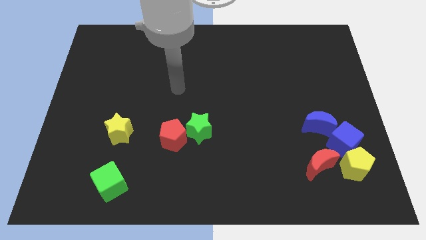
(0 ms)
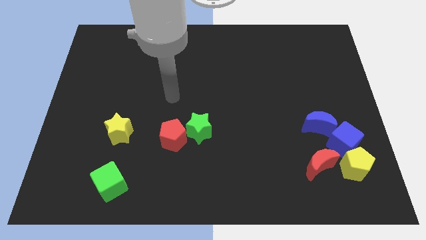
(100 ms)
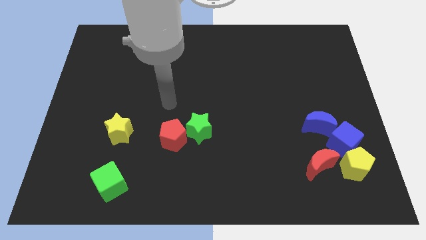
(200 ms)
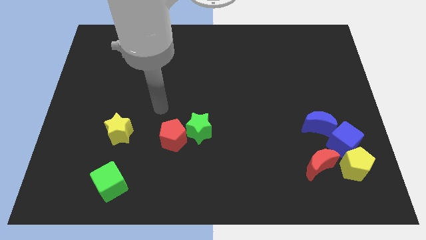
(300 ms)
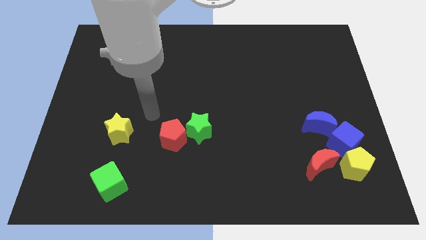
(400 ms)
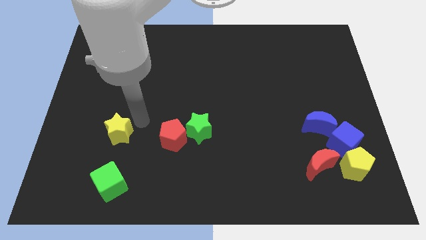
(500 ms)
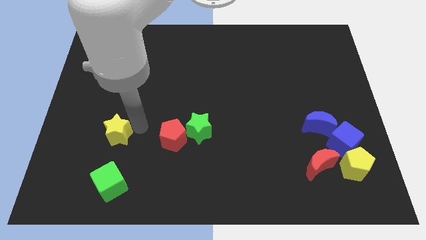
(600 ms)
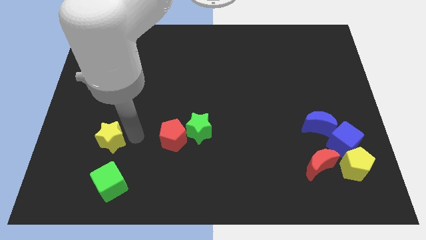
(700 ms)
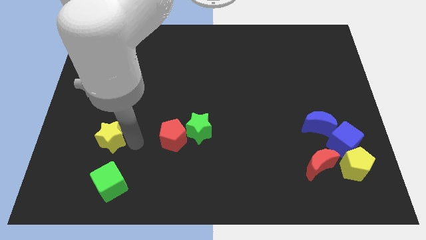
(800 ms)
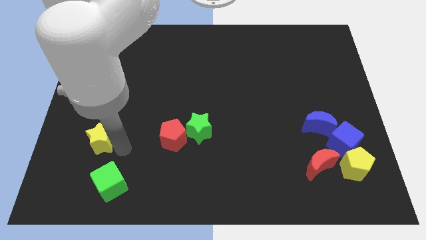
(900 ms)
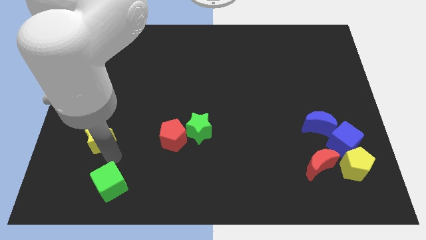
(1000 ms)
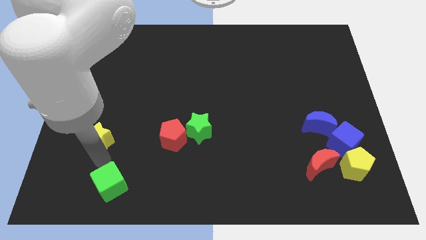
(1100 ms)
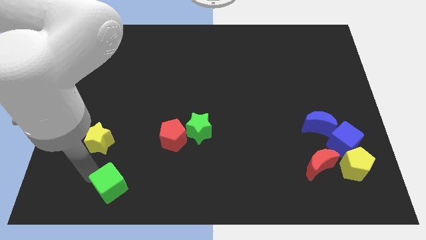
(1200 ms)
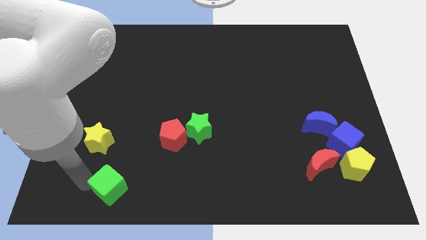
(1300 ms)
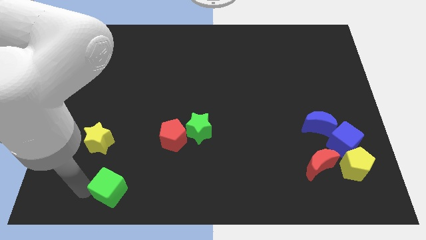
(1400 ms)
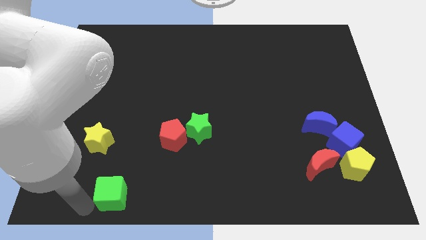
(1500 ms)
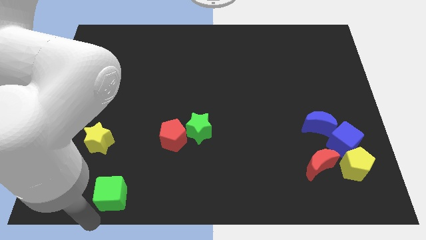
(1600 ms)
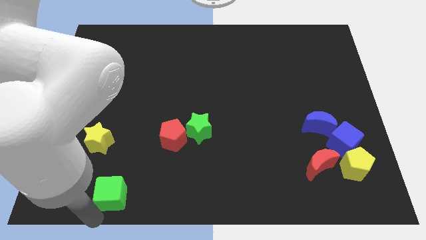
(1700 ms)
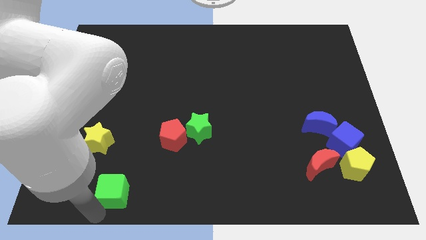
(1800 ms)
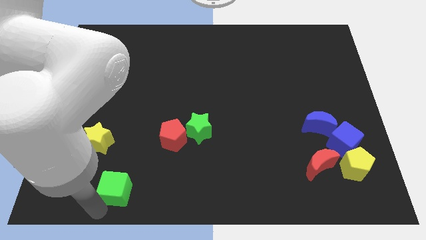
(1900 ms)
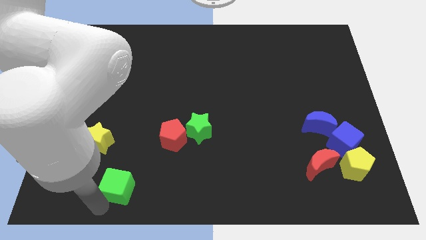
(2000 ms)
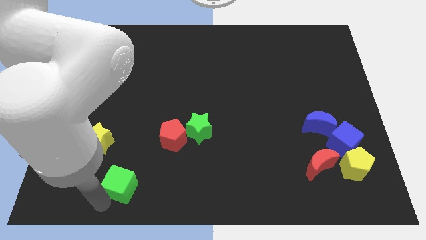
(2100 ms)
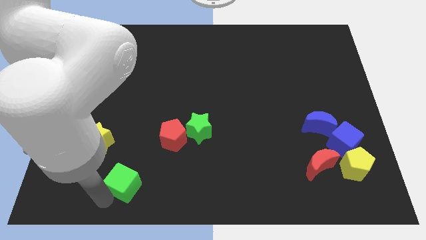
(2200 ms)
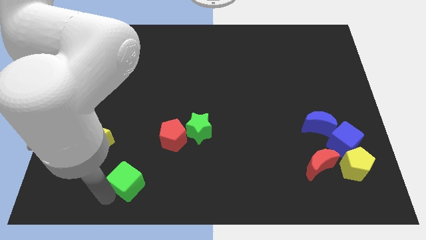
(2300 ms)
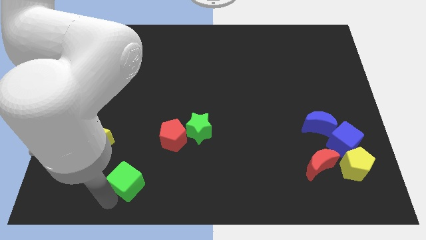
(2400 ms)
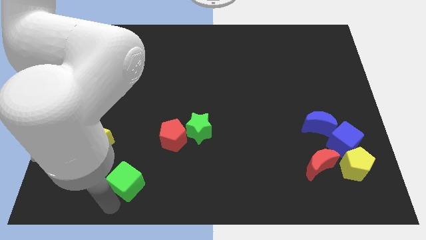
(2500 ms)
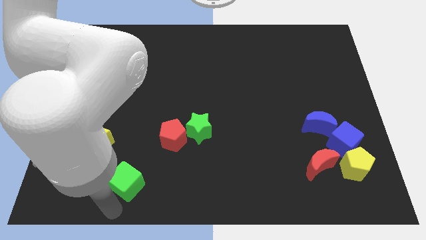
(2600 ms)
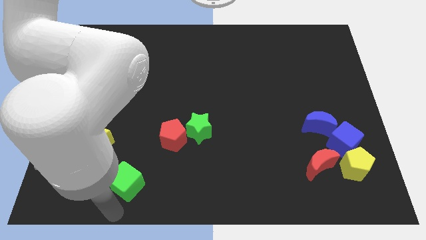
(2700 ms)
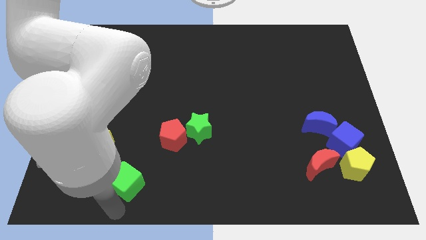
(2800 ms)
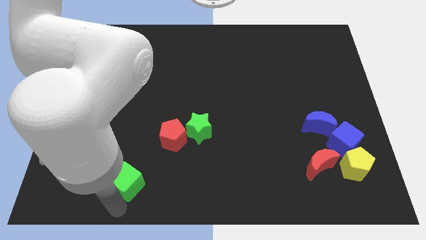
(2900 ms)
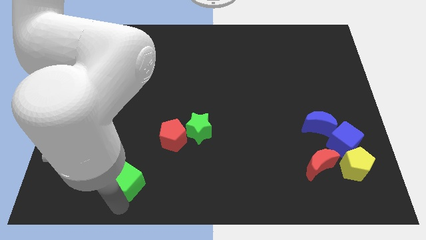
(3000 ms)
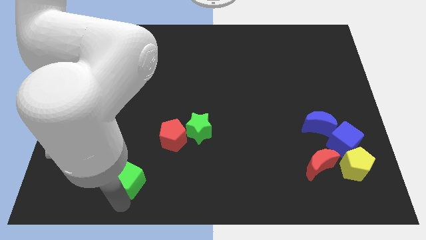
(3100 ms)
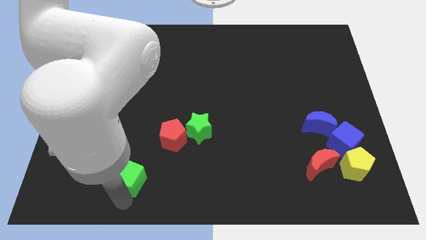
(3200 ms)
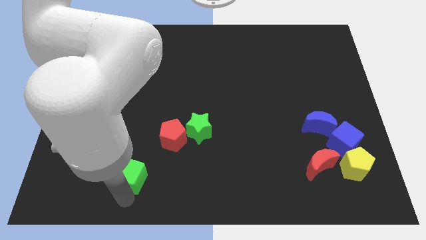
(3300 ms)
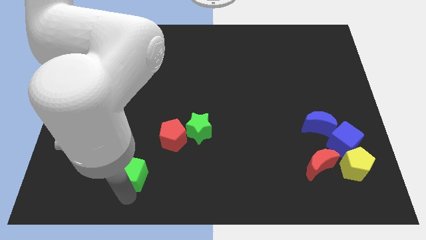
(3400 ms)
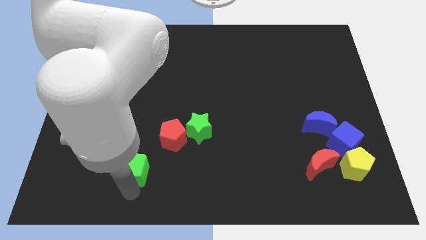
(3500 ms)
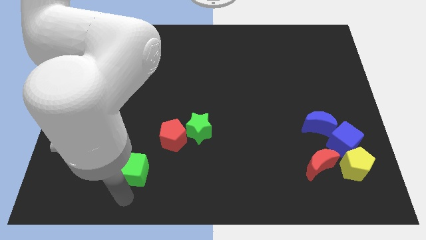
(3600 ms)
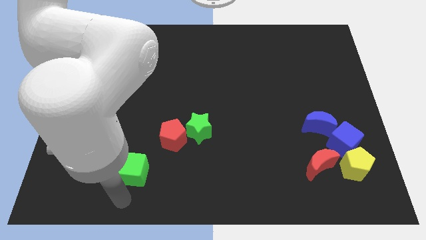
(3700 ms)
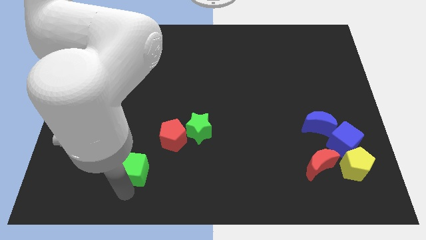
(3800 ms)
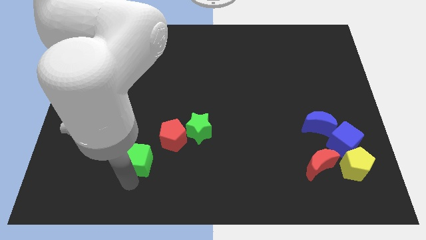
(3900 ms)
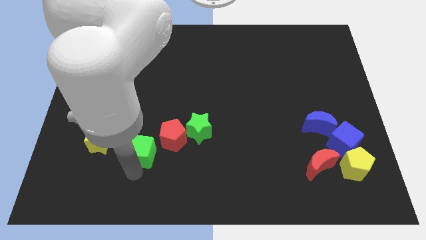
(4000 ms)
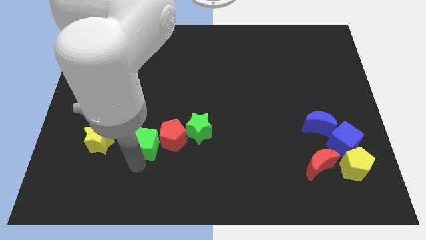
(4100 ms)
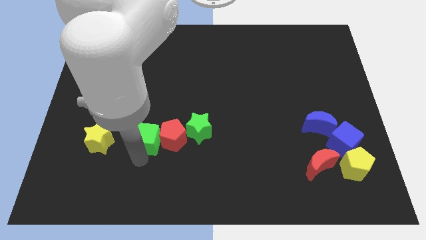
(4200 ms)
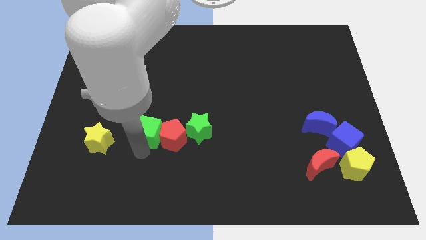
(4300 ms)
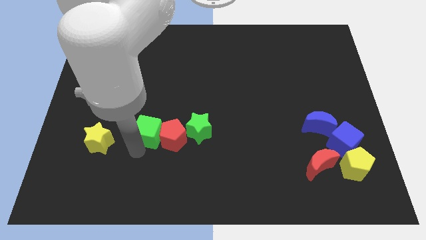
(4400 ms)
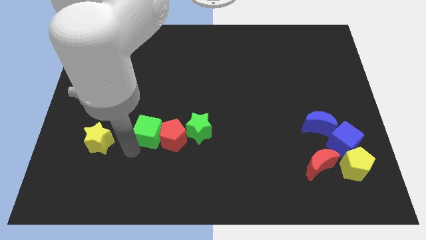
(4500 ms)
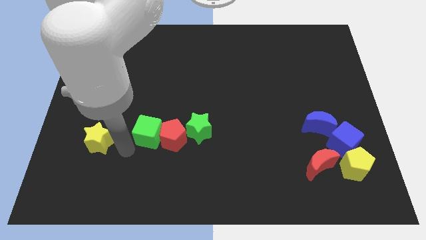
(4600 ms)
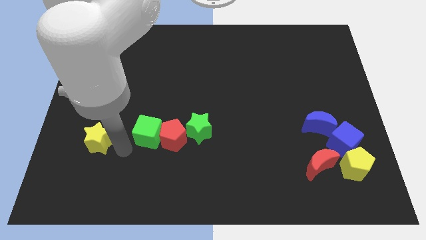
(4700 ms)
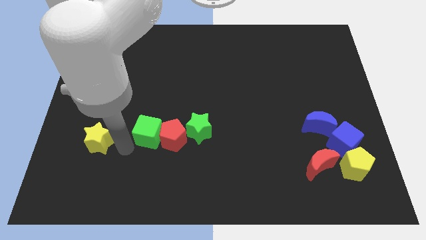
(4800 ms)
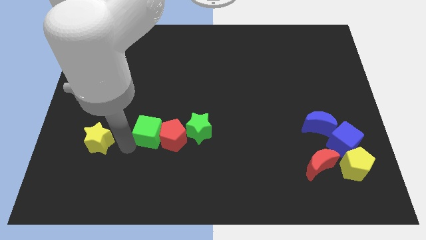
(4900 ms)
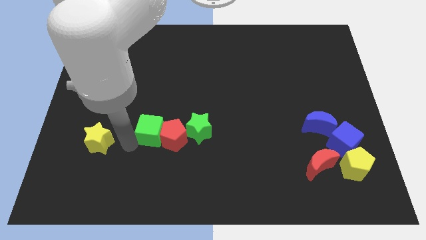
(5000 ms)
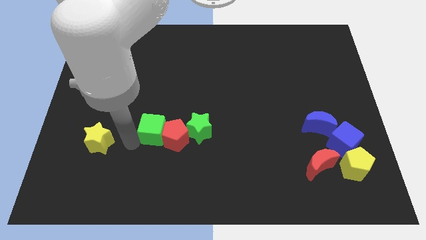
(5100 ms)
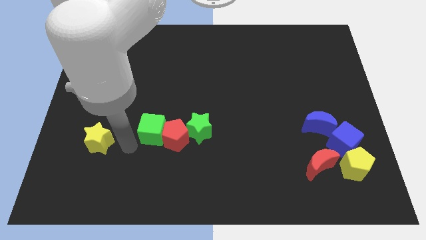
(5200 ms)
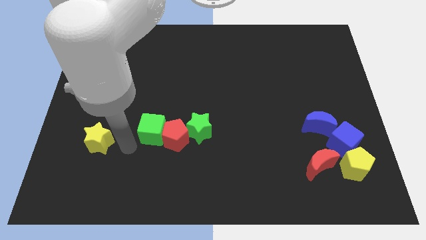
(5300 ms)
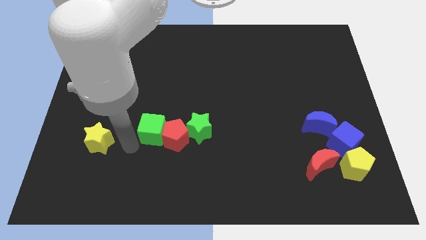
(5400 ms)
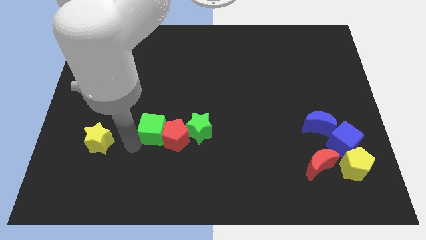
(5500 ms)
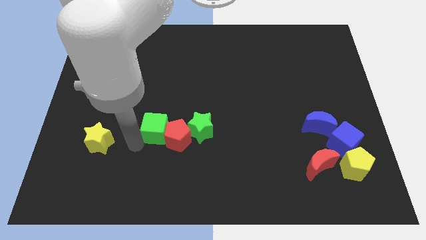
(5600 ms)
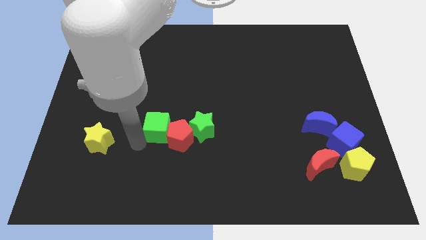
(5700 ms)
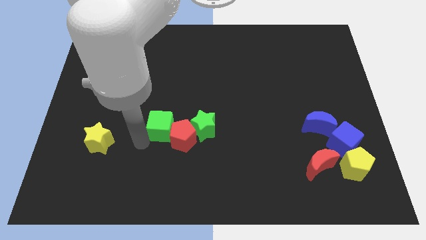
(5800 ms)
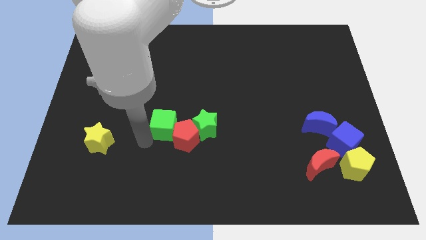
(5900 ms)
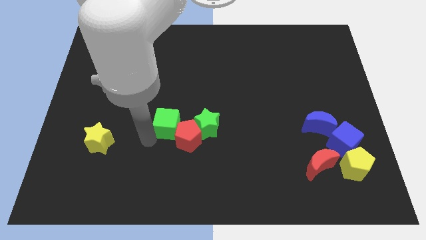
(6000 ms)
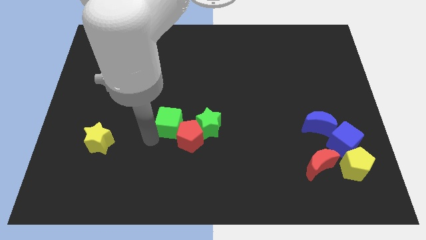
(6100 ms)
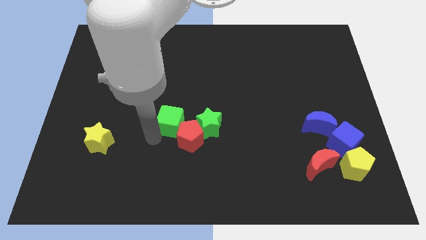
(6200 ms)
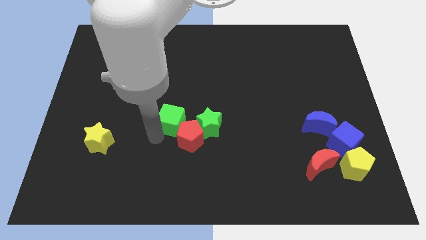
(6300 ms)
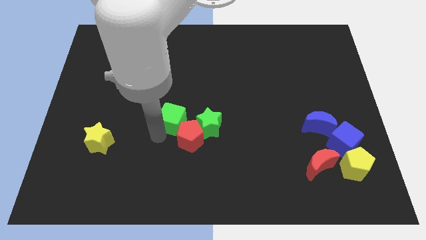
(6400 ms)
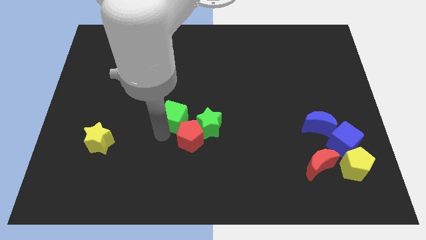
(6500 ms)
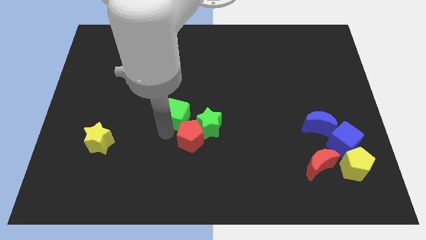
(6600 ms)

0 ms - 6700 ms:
move the green cube up and to the right diagonally

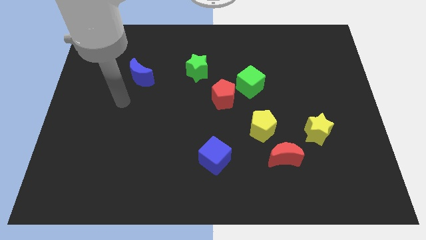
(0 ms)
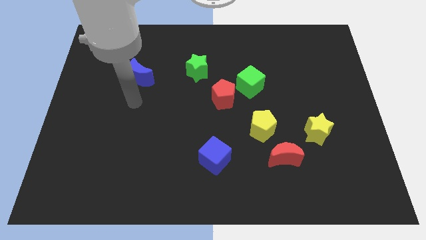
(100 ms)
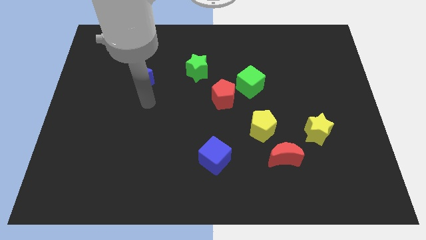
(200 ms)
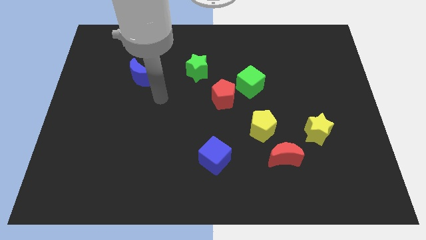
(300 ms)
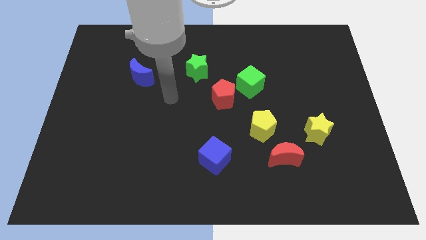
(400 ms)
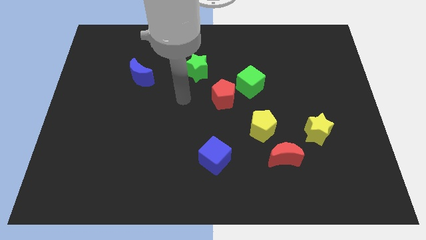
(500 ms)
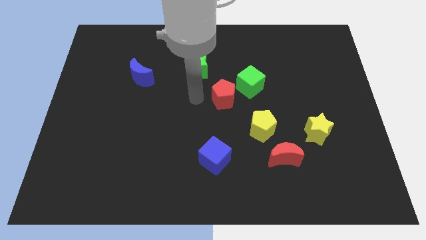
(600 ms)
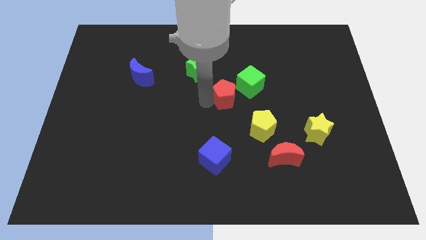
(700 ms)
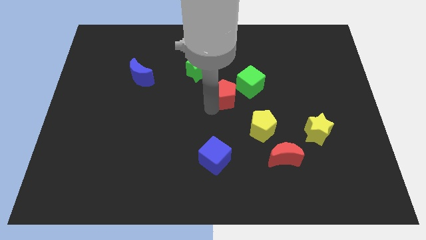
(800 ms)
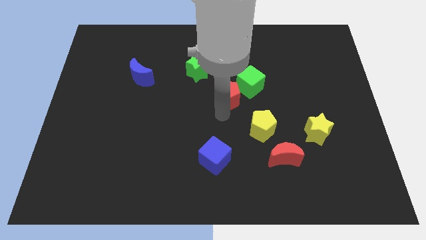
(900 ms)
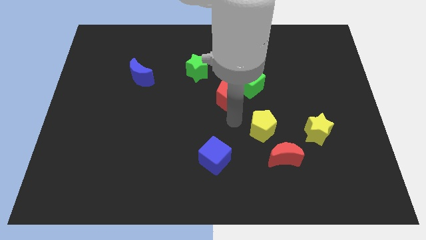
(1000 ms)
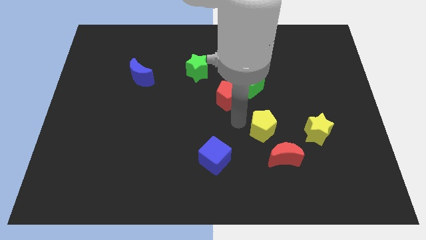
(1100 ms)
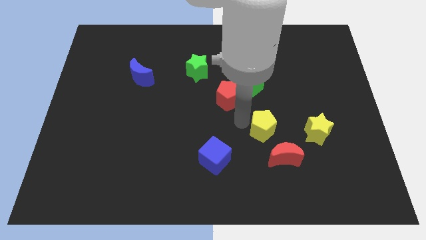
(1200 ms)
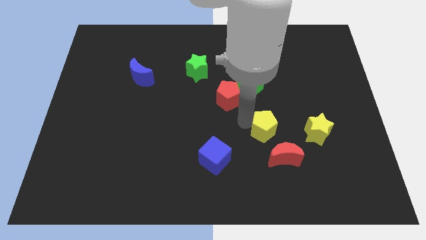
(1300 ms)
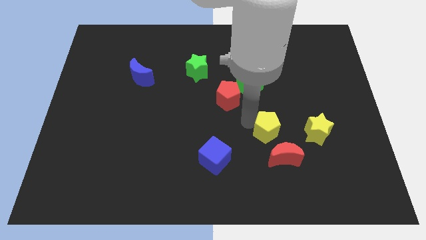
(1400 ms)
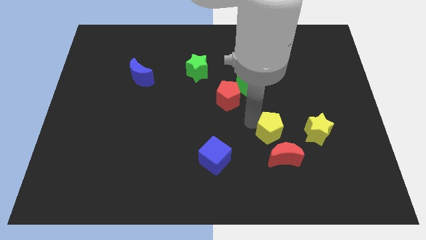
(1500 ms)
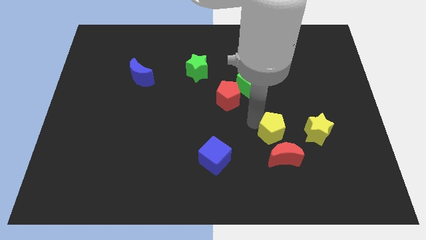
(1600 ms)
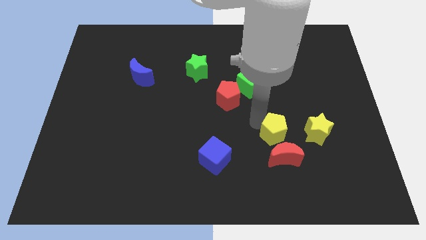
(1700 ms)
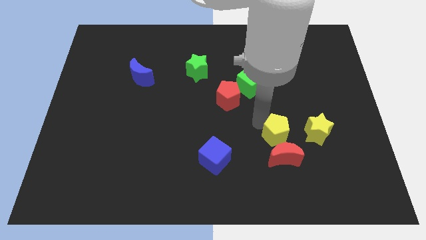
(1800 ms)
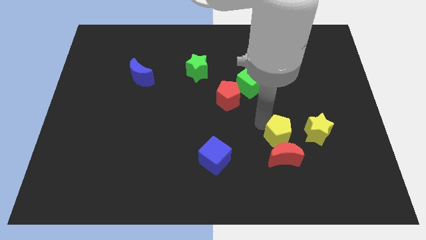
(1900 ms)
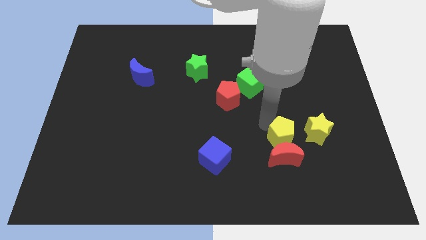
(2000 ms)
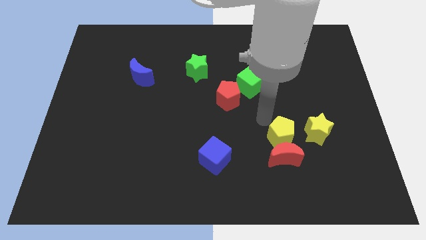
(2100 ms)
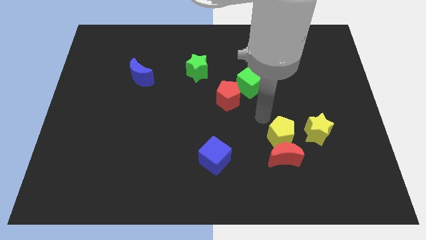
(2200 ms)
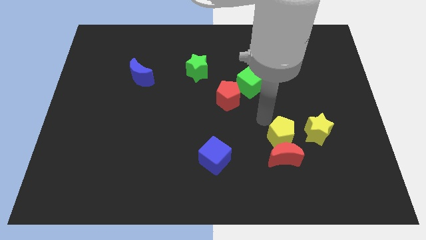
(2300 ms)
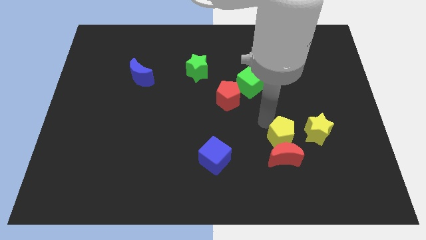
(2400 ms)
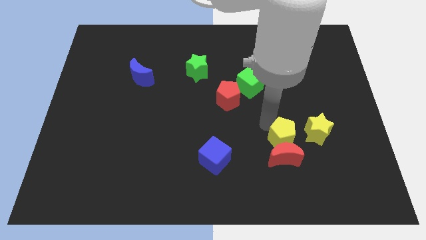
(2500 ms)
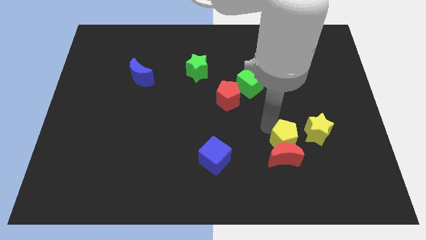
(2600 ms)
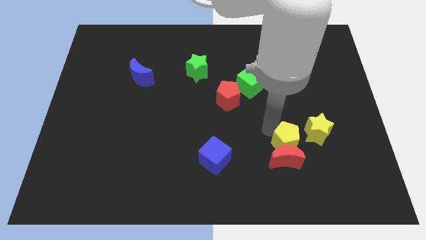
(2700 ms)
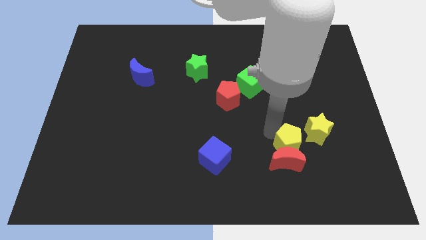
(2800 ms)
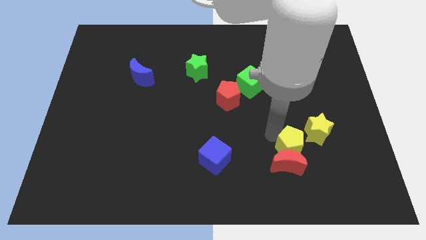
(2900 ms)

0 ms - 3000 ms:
slightly push the yellow pentagon downwards and to the right
